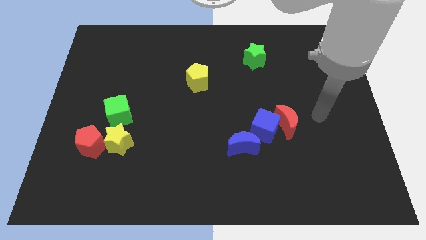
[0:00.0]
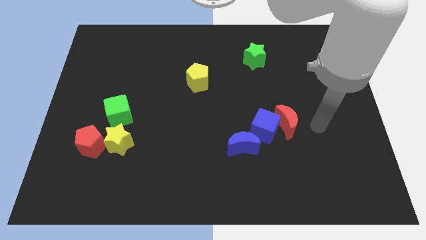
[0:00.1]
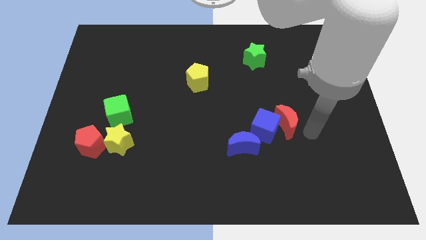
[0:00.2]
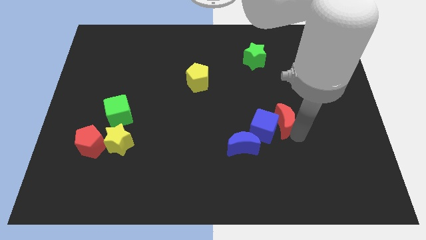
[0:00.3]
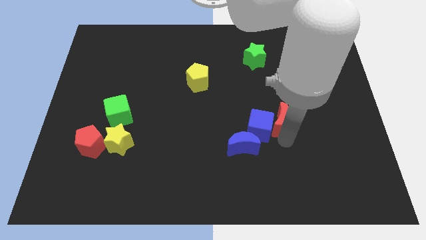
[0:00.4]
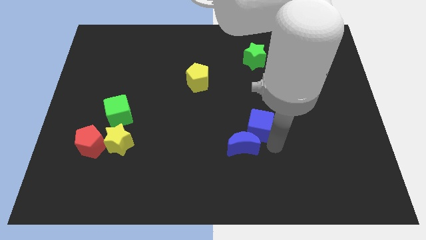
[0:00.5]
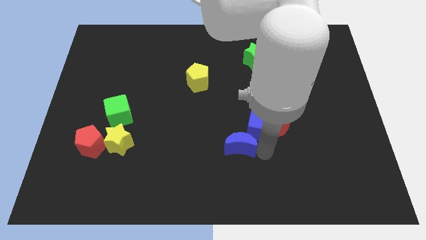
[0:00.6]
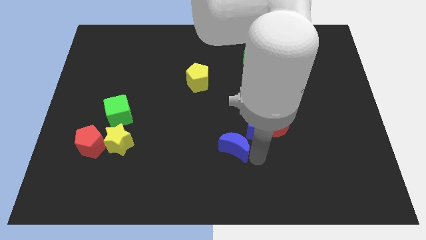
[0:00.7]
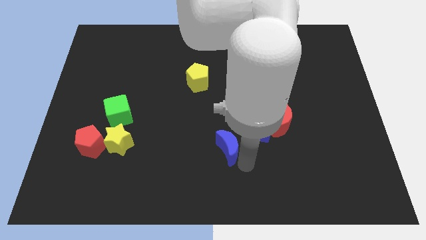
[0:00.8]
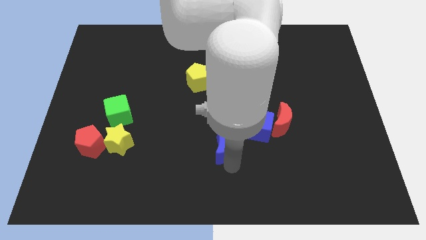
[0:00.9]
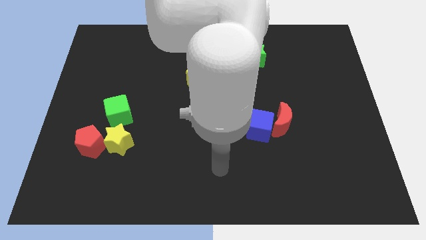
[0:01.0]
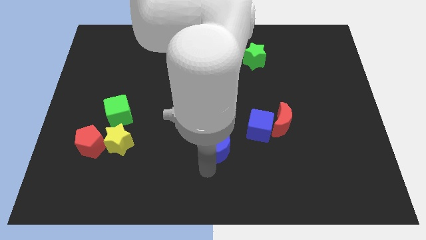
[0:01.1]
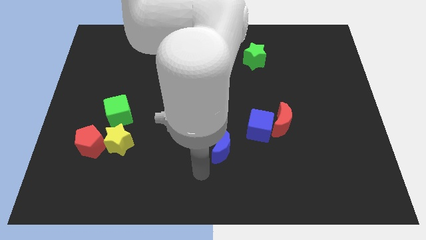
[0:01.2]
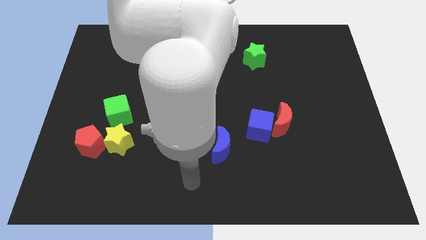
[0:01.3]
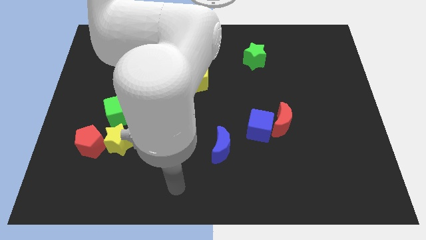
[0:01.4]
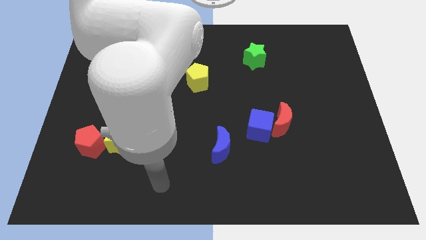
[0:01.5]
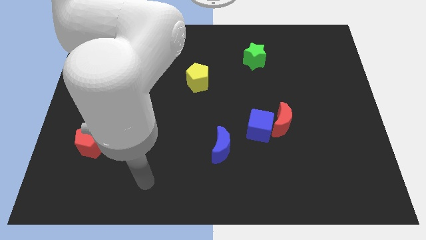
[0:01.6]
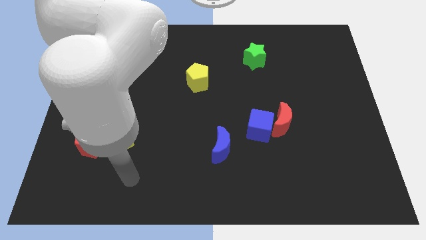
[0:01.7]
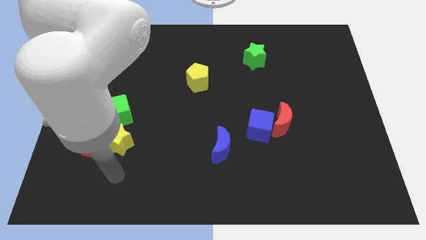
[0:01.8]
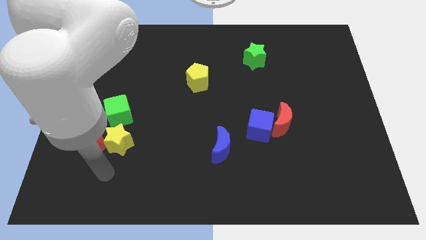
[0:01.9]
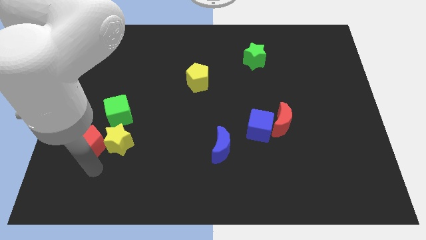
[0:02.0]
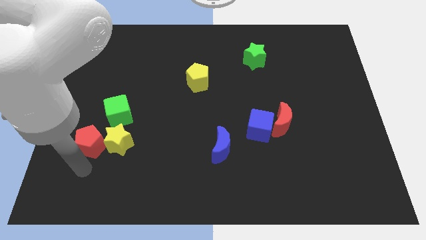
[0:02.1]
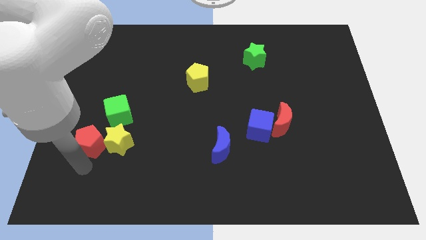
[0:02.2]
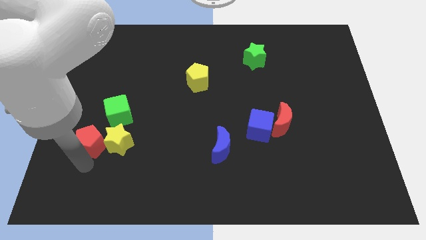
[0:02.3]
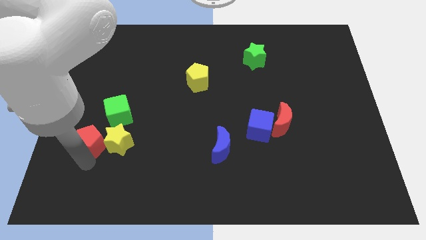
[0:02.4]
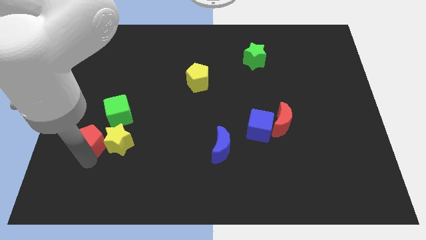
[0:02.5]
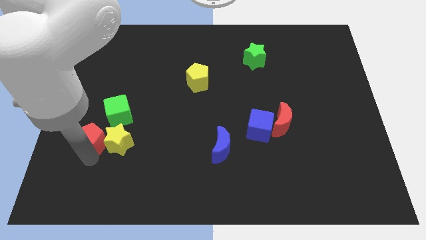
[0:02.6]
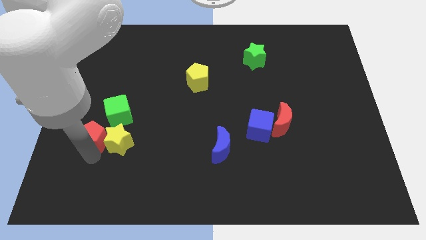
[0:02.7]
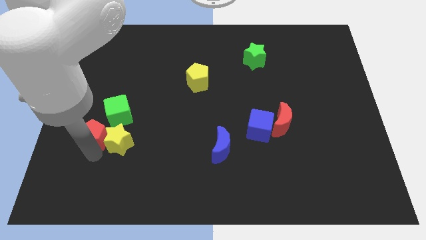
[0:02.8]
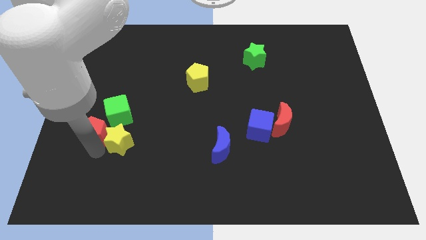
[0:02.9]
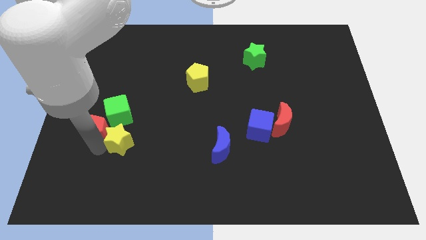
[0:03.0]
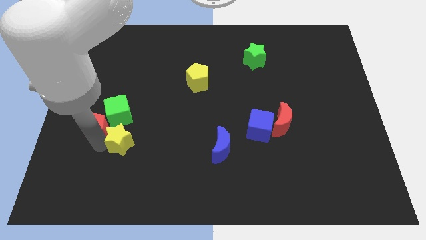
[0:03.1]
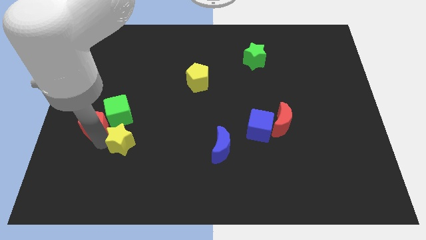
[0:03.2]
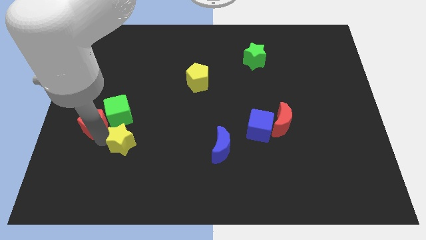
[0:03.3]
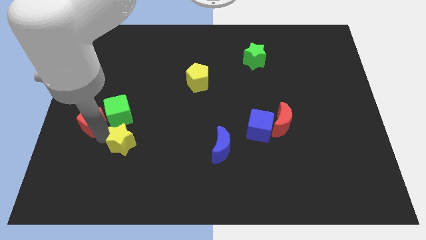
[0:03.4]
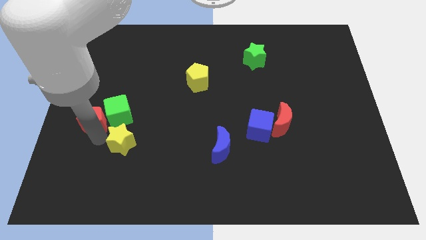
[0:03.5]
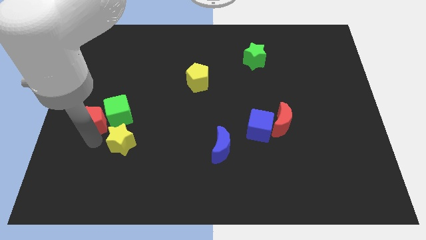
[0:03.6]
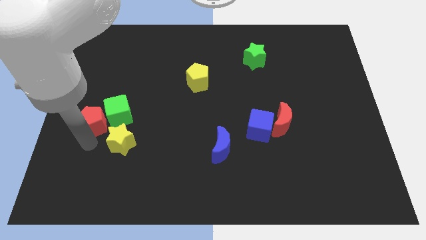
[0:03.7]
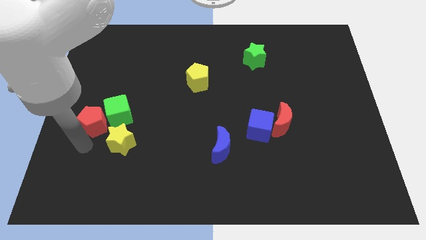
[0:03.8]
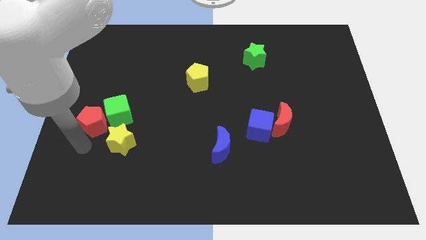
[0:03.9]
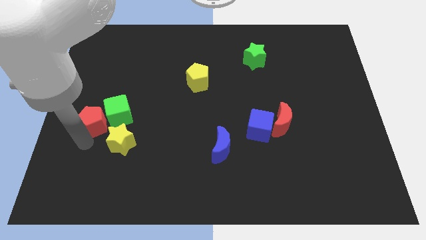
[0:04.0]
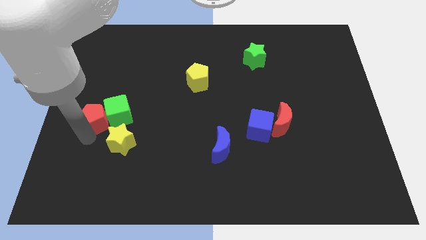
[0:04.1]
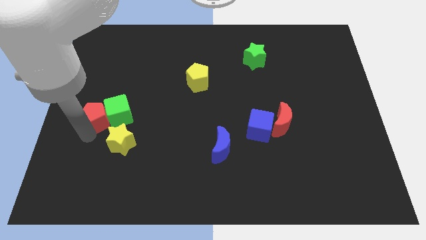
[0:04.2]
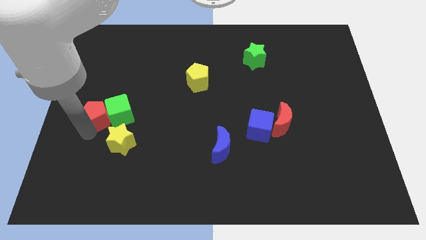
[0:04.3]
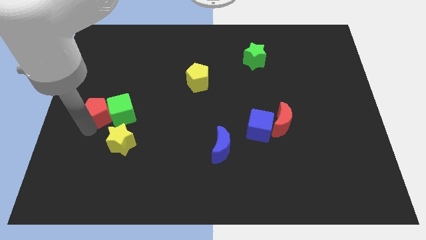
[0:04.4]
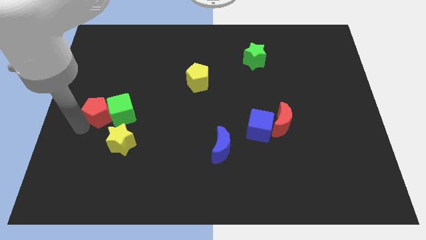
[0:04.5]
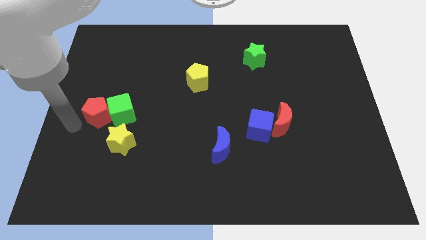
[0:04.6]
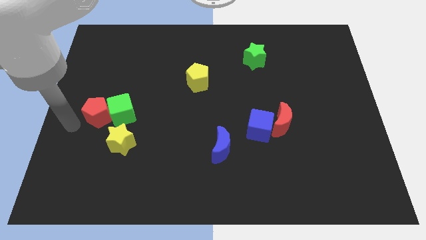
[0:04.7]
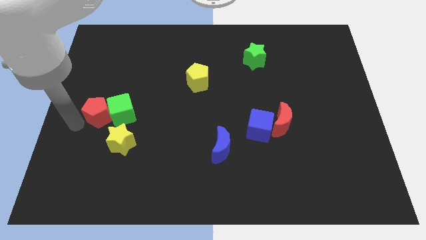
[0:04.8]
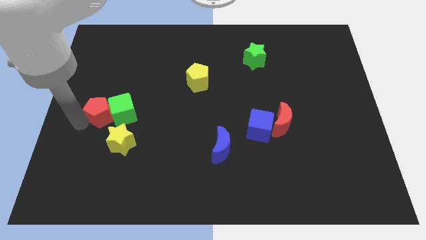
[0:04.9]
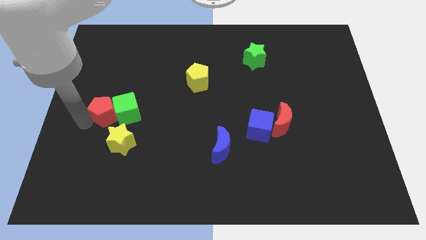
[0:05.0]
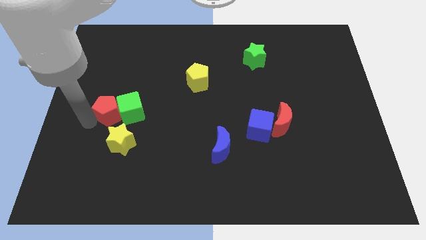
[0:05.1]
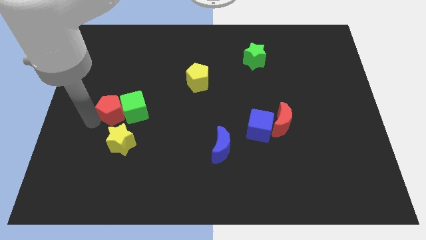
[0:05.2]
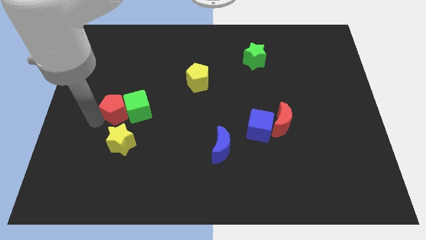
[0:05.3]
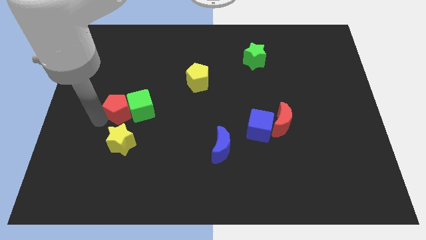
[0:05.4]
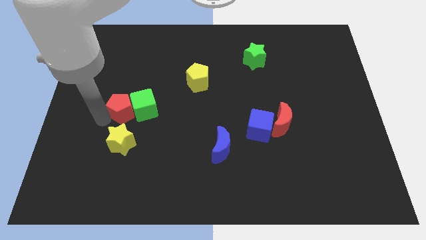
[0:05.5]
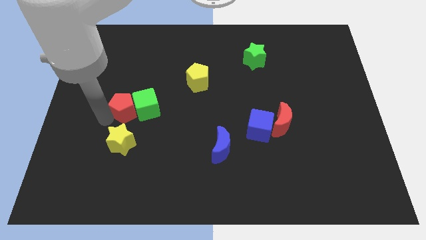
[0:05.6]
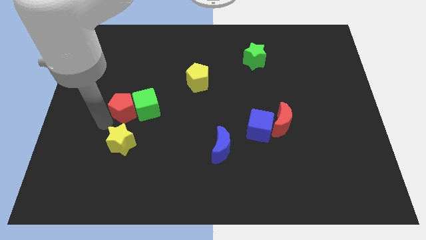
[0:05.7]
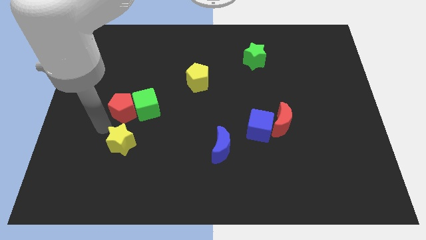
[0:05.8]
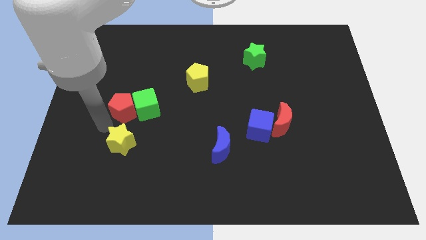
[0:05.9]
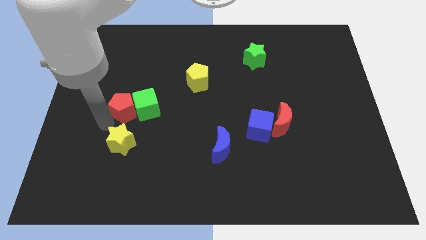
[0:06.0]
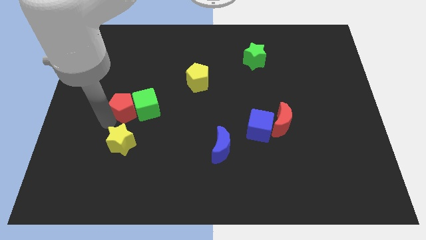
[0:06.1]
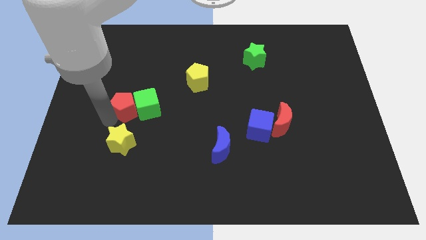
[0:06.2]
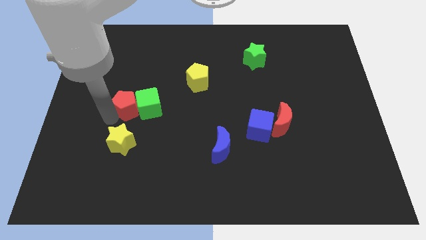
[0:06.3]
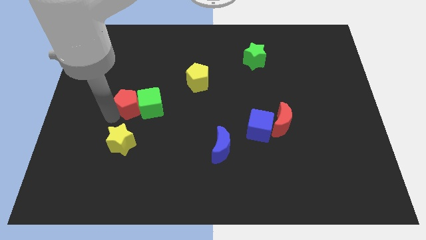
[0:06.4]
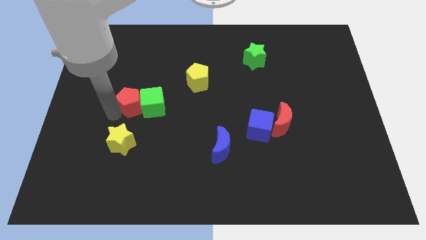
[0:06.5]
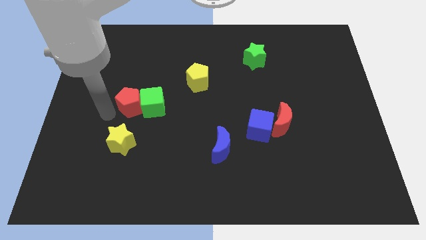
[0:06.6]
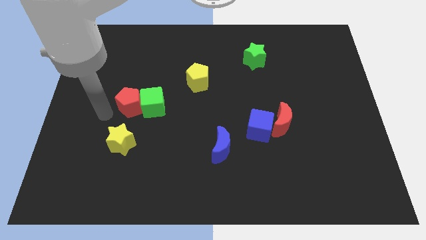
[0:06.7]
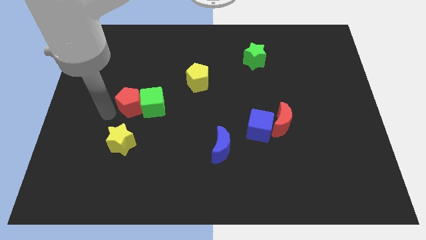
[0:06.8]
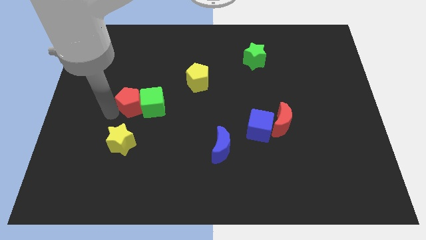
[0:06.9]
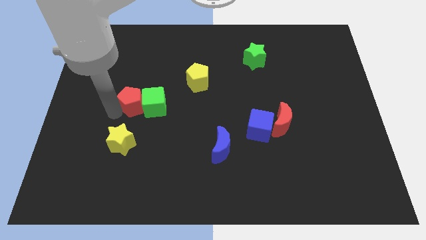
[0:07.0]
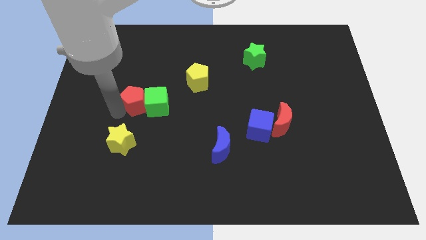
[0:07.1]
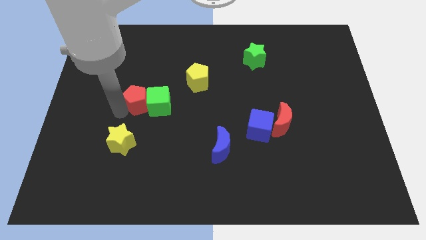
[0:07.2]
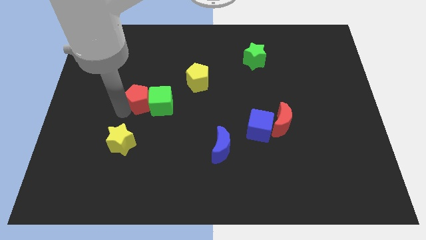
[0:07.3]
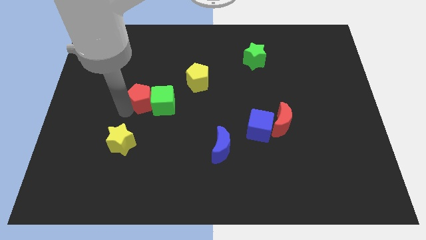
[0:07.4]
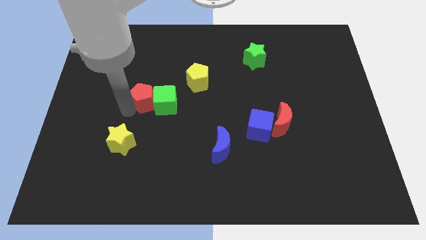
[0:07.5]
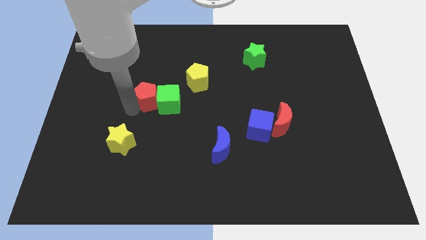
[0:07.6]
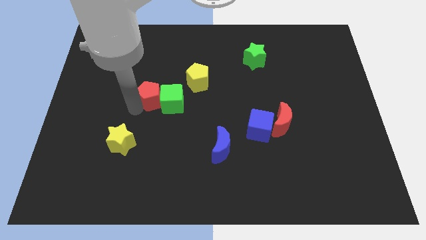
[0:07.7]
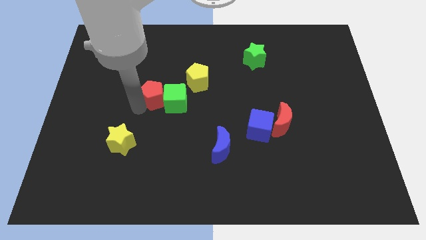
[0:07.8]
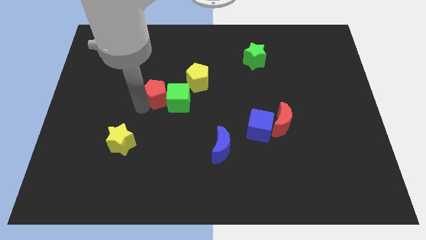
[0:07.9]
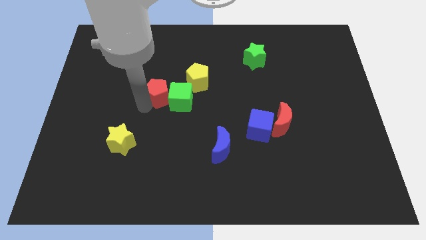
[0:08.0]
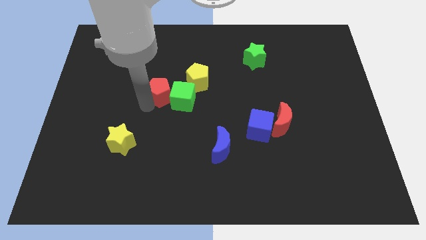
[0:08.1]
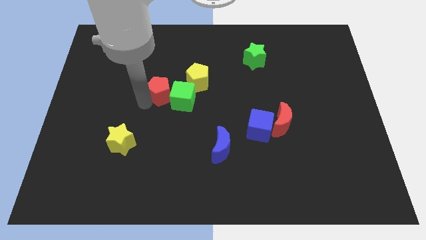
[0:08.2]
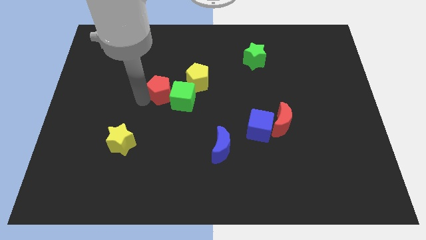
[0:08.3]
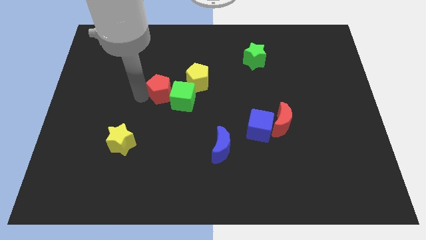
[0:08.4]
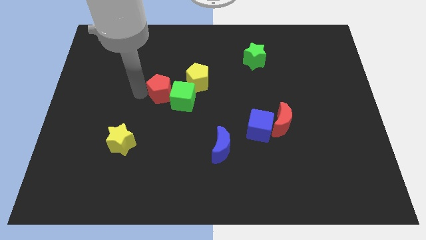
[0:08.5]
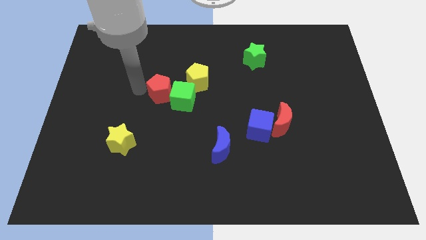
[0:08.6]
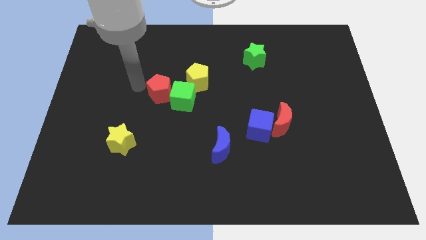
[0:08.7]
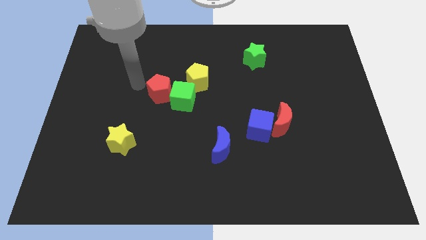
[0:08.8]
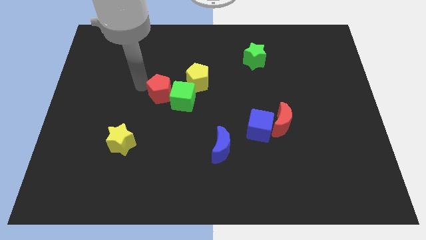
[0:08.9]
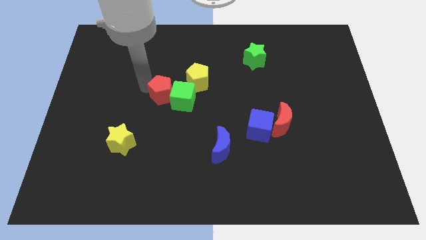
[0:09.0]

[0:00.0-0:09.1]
push the red pentagon to the center
